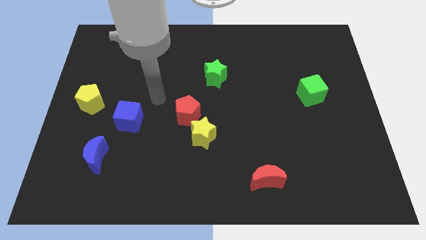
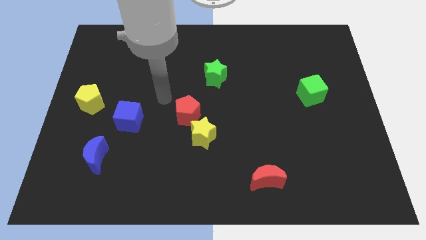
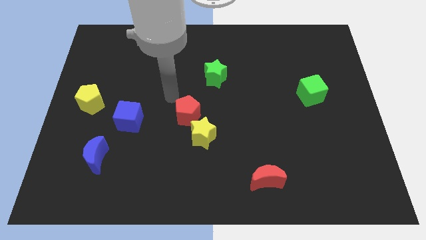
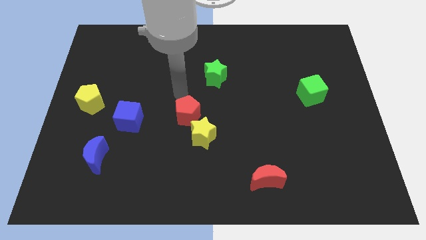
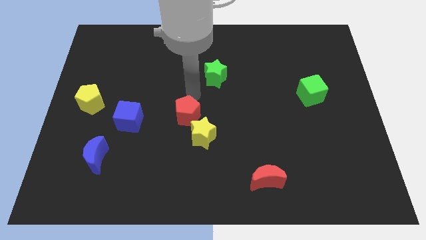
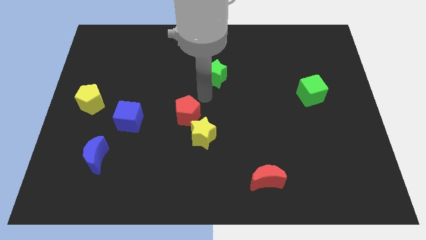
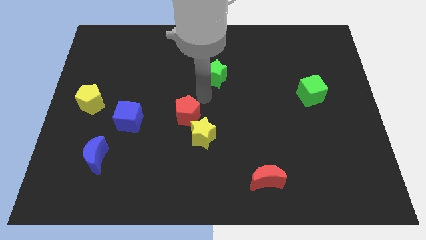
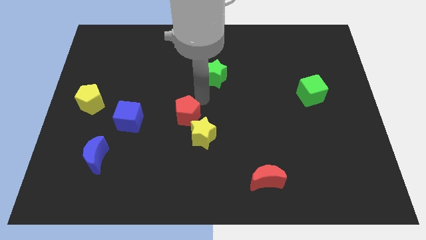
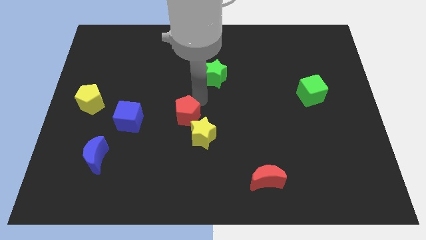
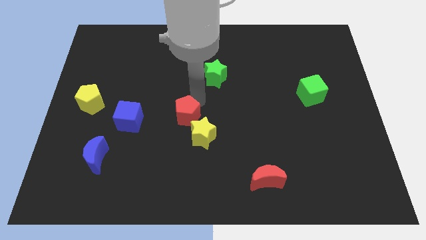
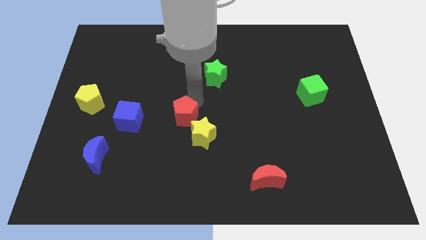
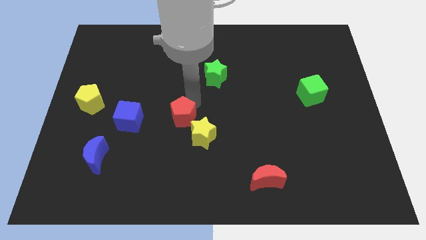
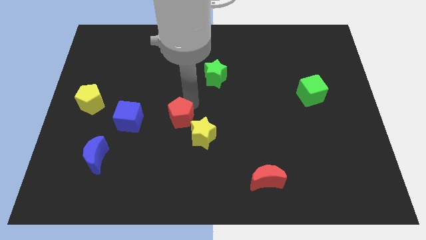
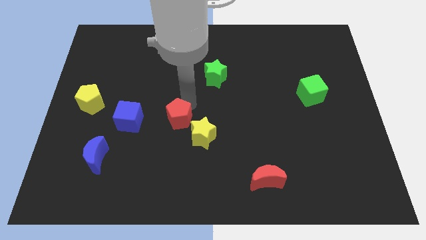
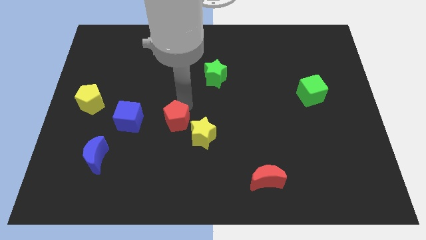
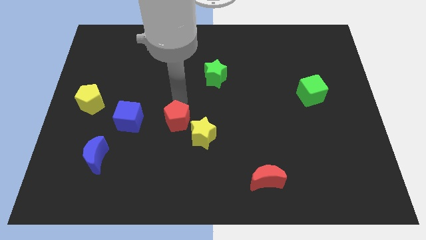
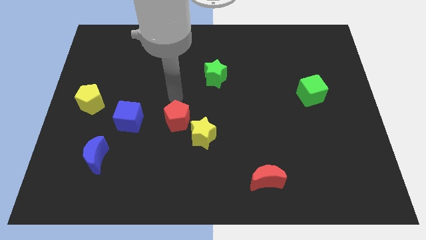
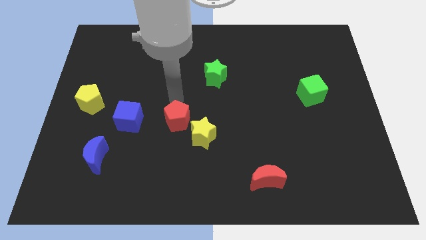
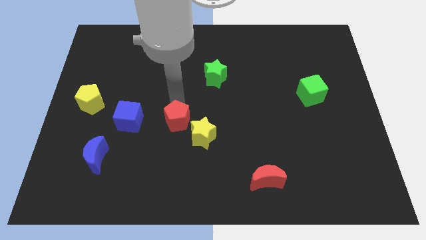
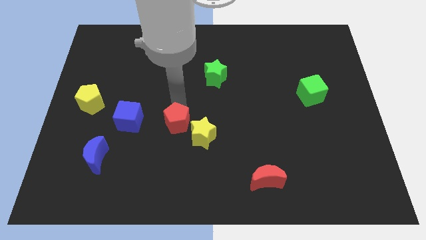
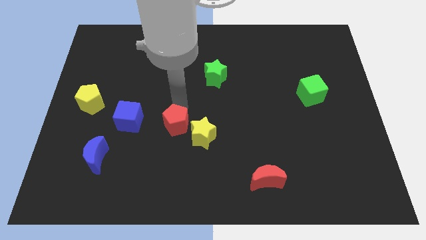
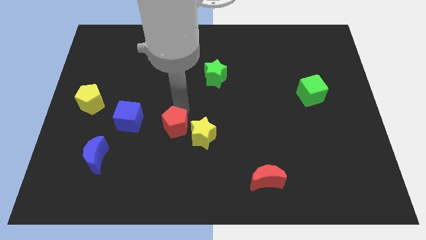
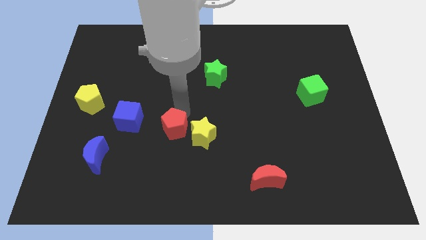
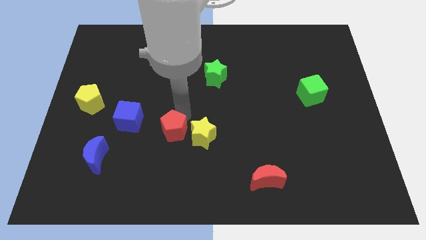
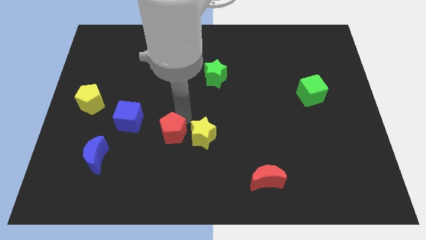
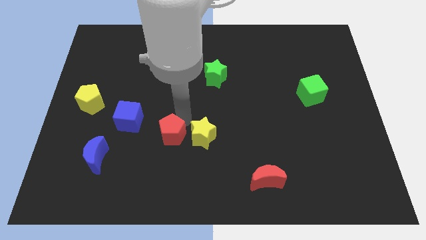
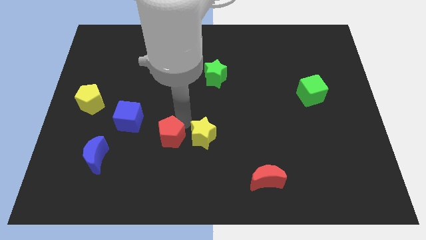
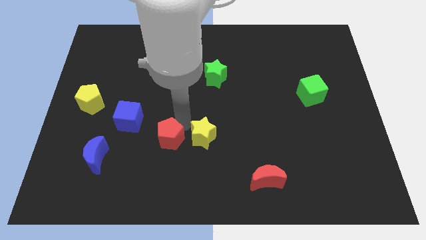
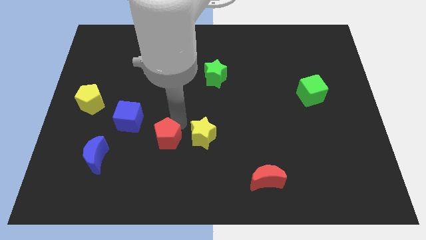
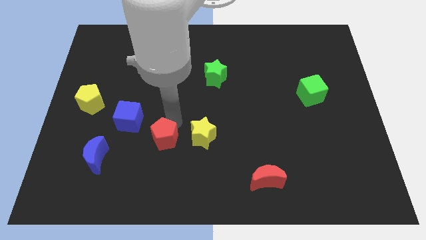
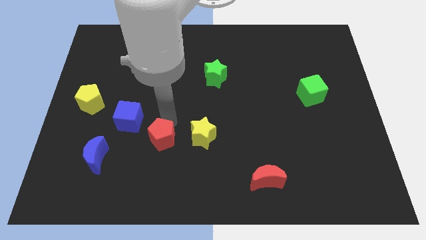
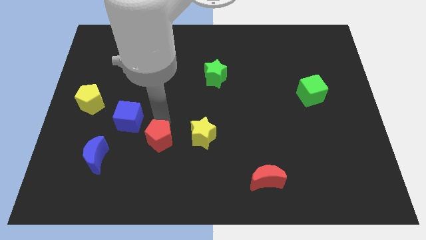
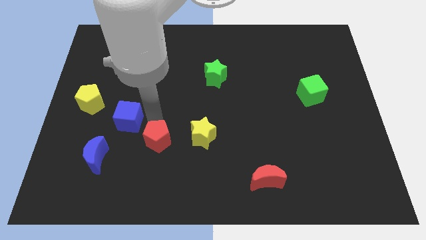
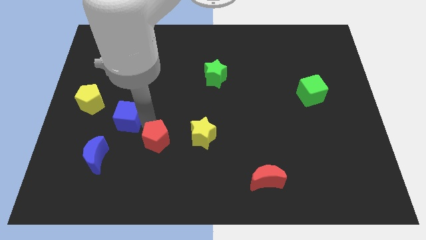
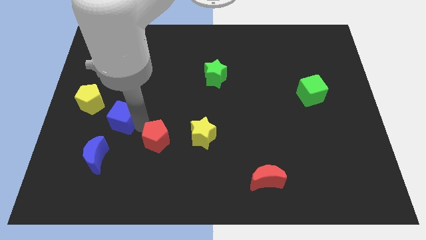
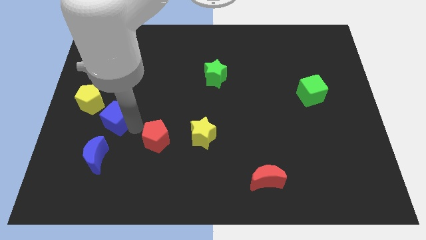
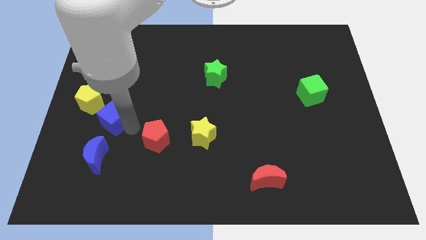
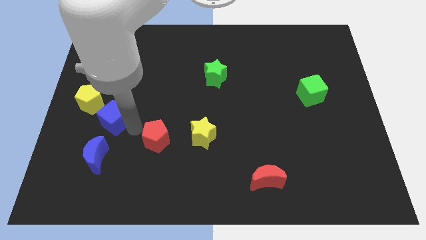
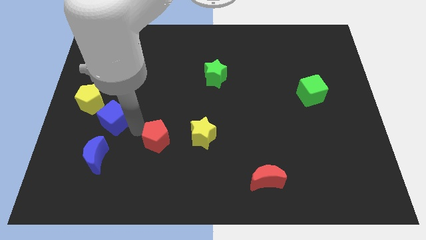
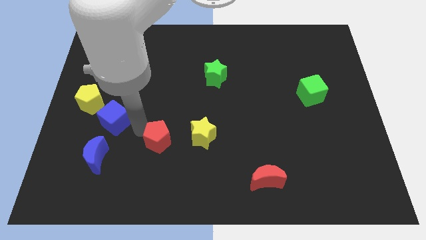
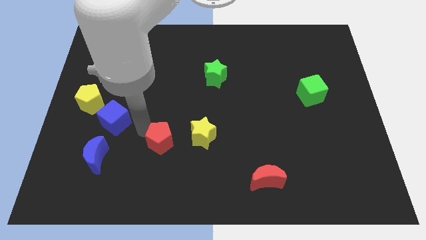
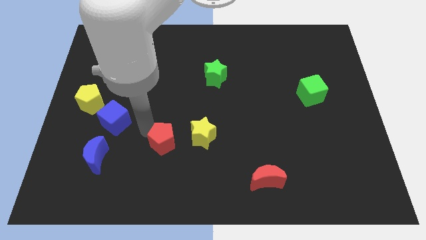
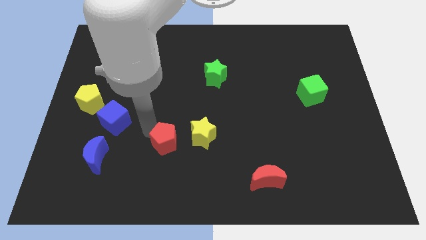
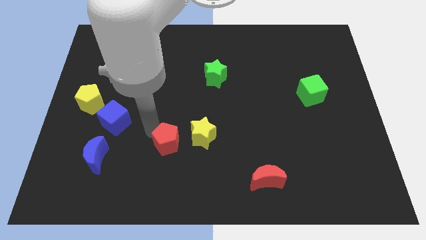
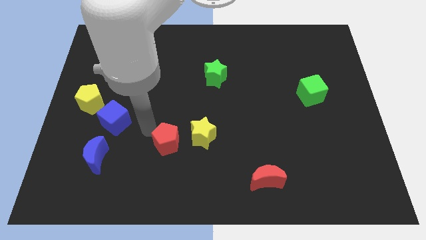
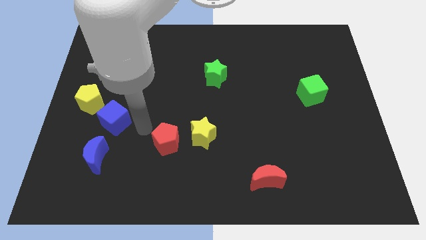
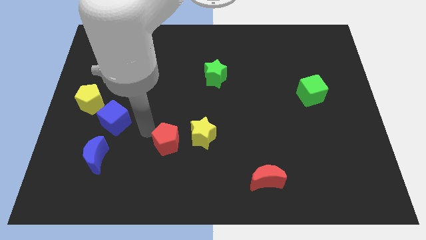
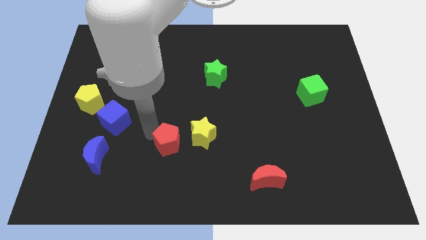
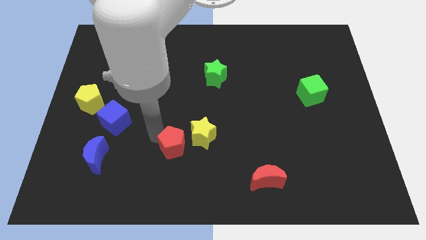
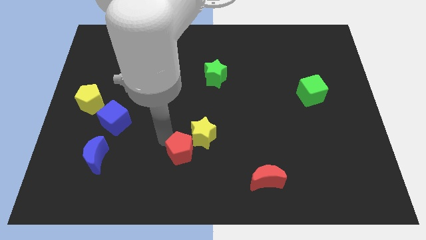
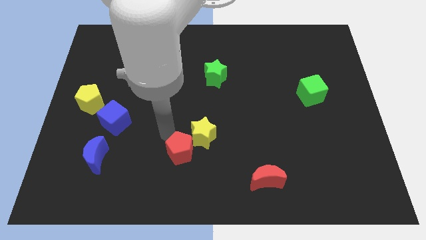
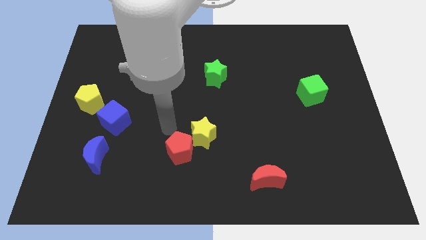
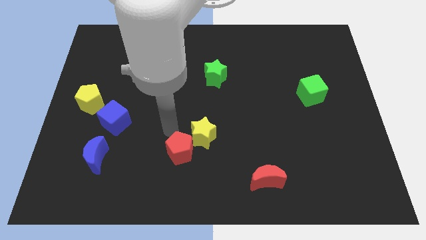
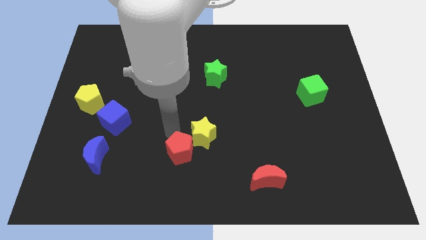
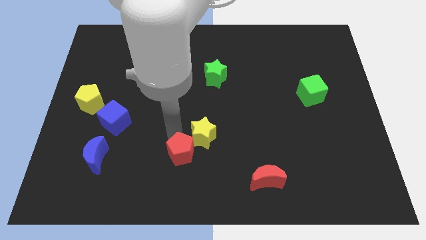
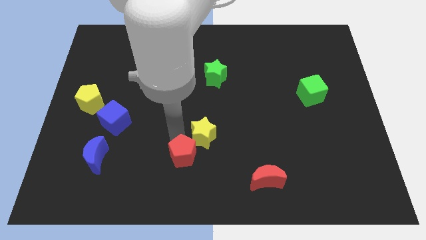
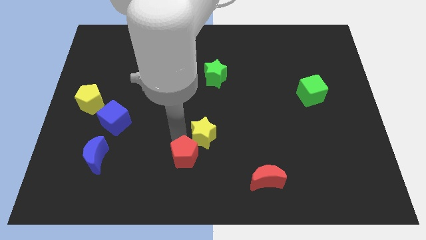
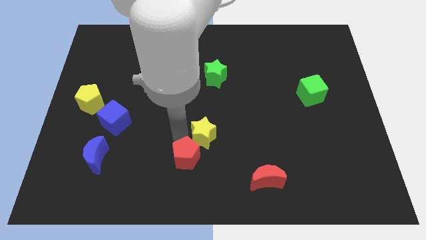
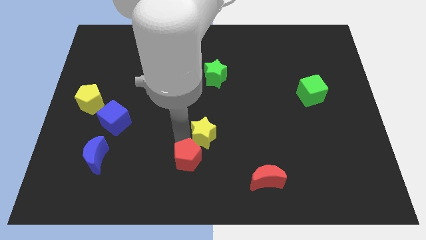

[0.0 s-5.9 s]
put the red pentagon to the bottom side

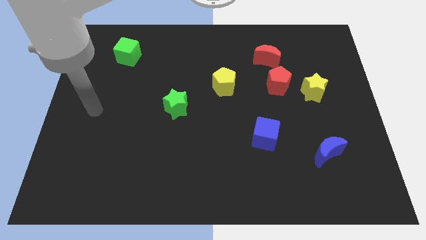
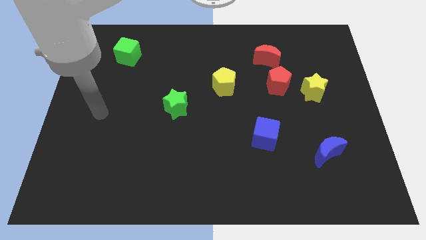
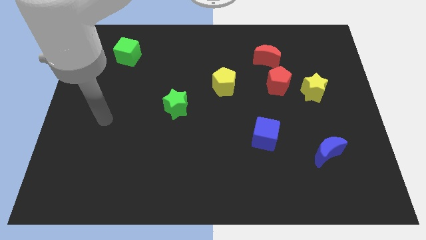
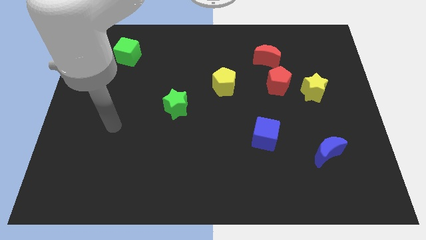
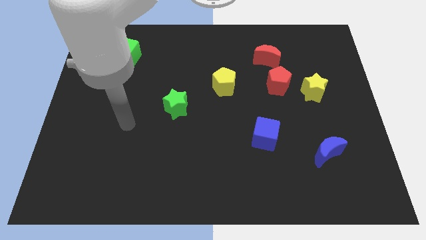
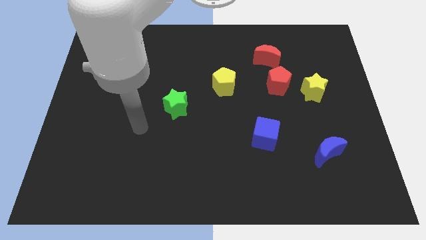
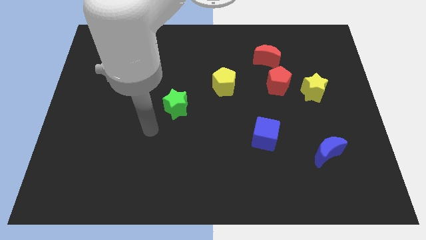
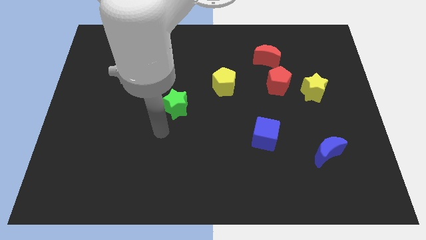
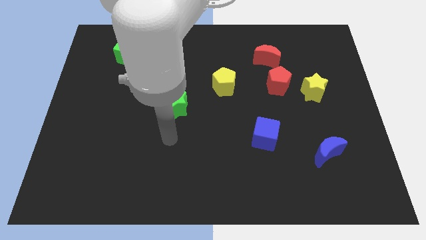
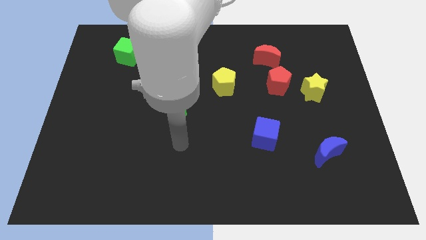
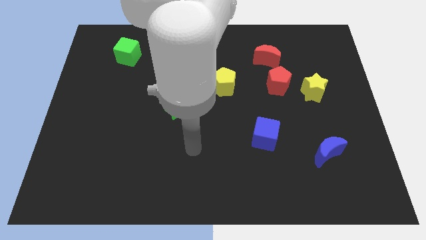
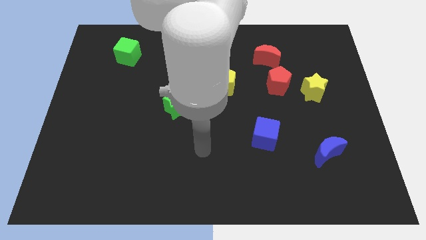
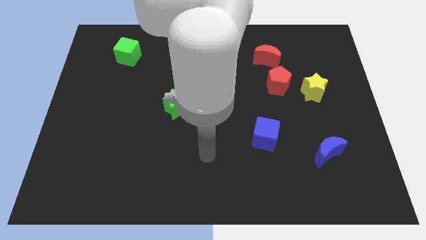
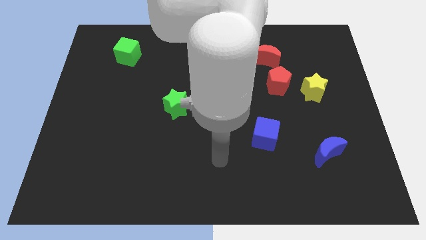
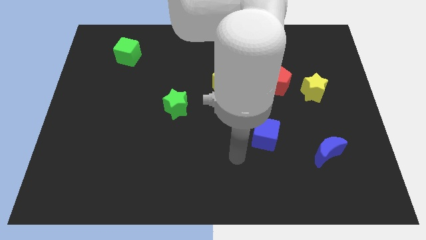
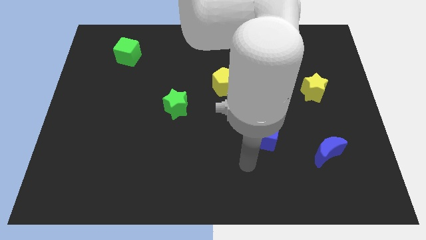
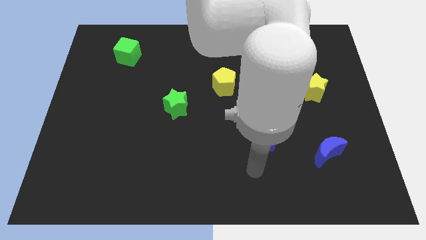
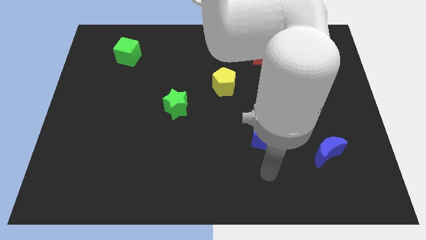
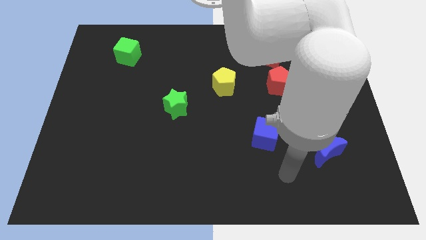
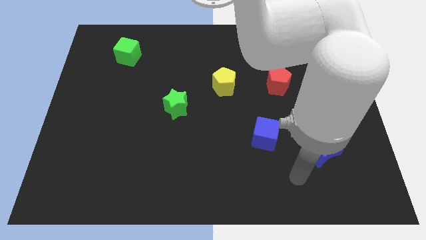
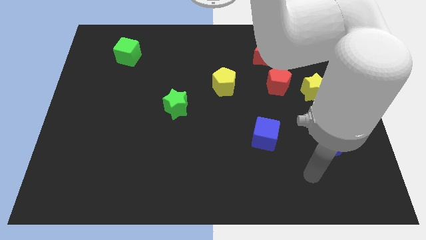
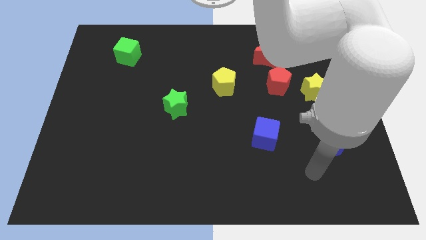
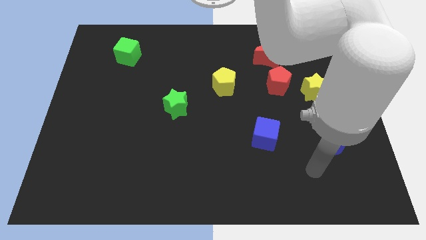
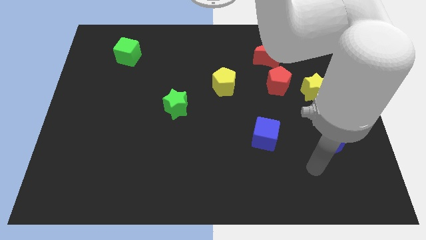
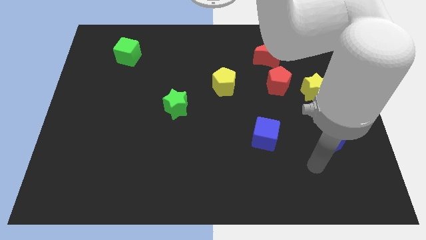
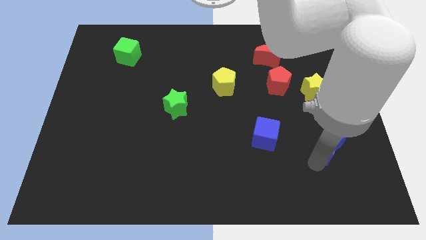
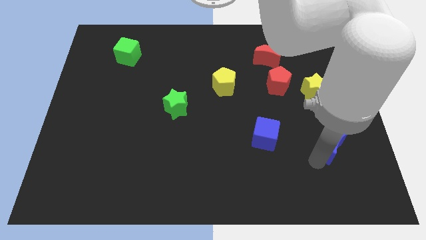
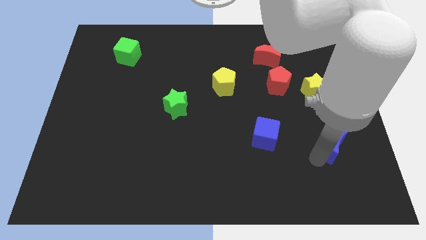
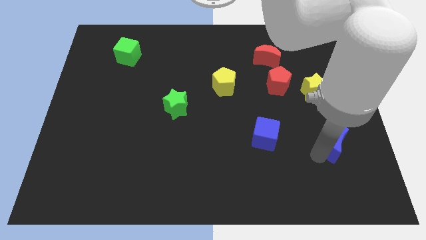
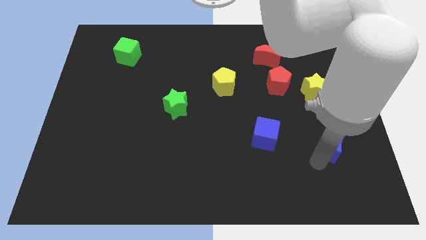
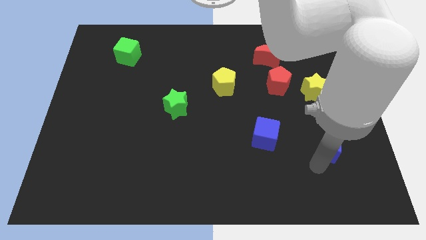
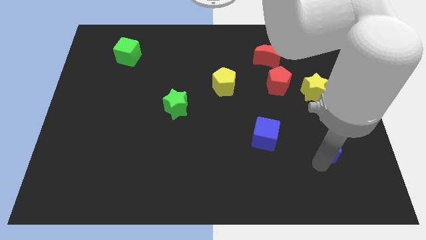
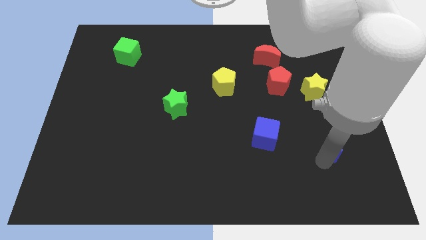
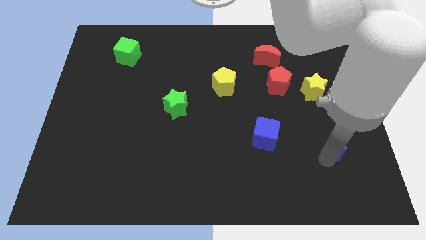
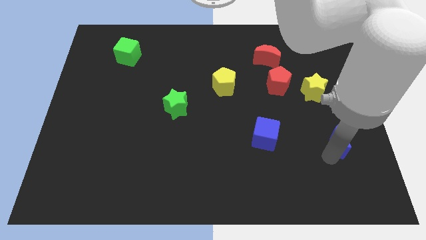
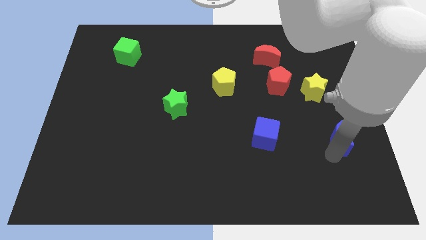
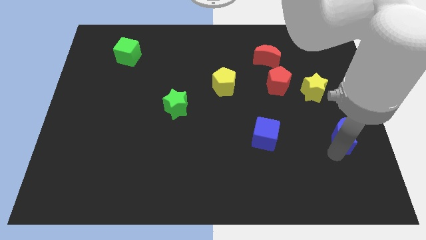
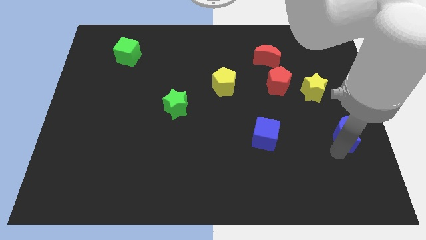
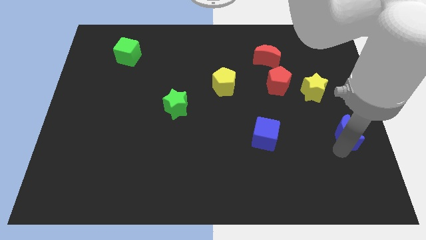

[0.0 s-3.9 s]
put the blue moon to the center right
